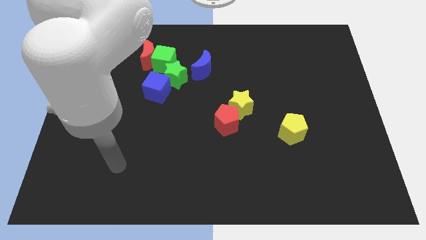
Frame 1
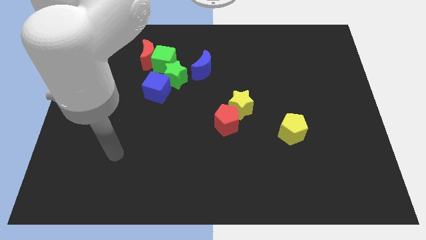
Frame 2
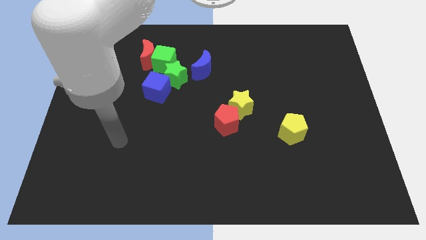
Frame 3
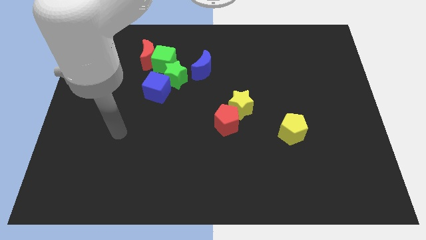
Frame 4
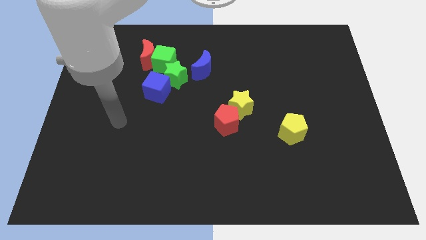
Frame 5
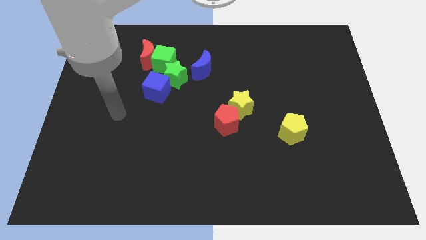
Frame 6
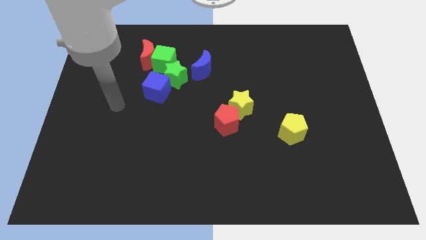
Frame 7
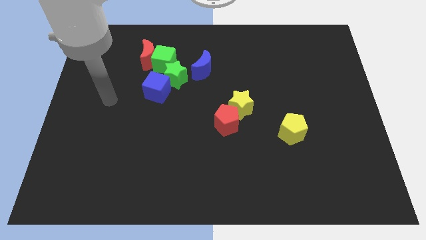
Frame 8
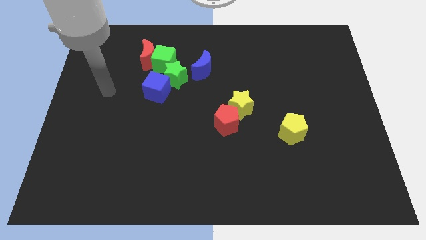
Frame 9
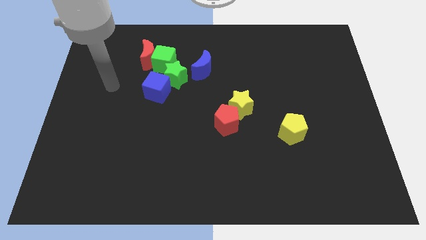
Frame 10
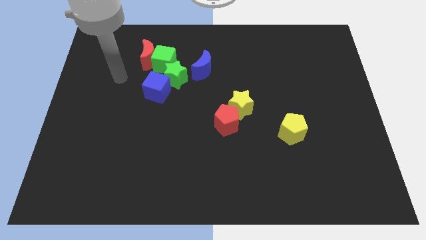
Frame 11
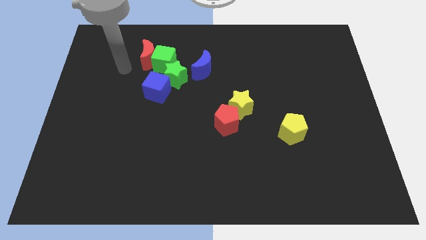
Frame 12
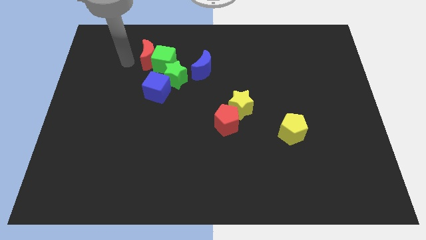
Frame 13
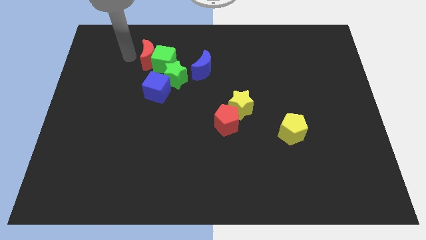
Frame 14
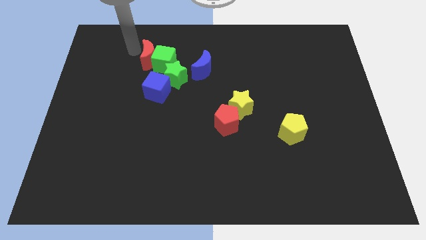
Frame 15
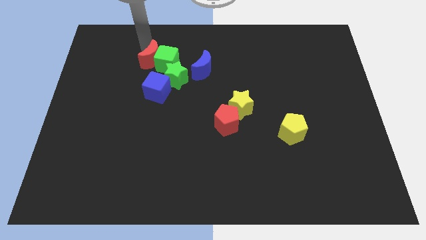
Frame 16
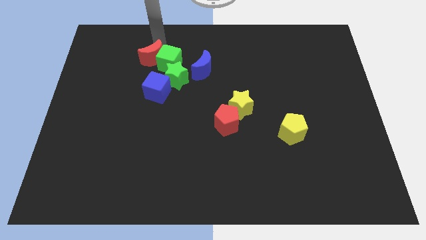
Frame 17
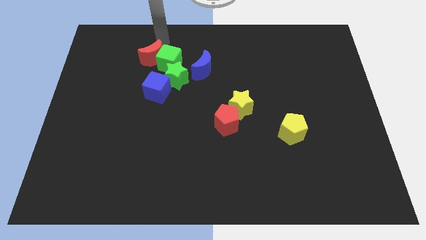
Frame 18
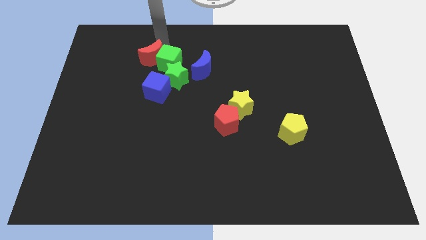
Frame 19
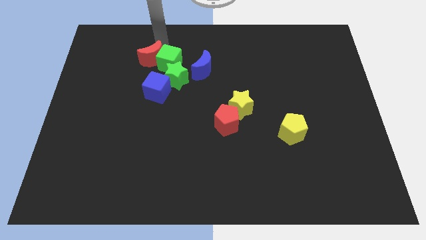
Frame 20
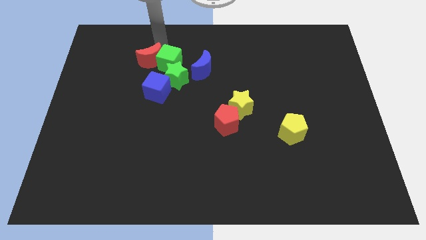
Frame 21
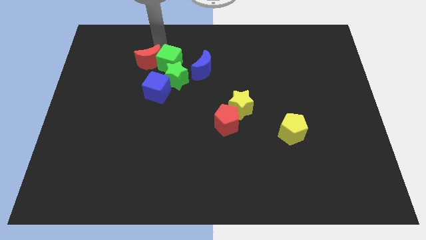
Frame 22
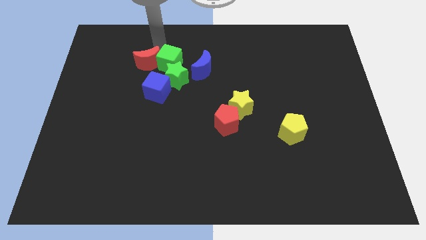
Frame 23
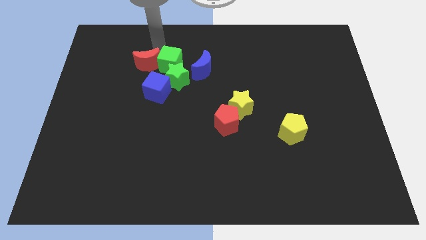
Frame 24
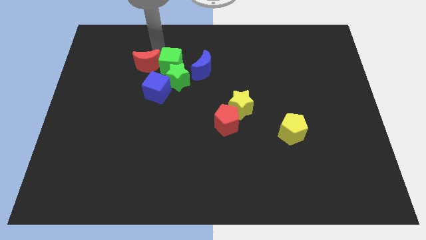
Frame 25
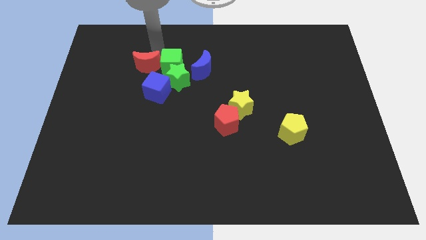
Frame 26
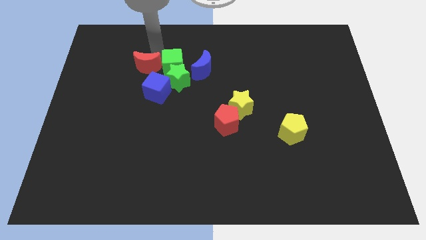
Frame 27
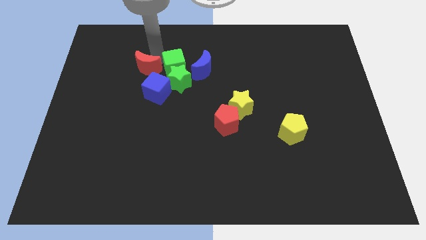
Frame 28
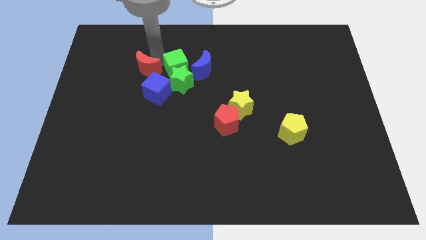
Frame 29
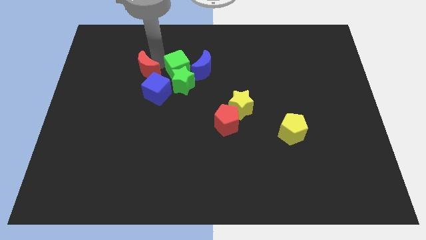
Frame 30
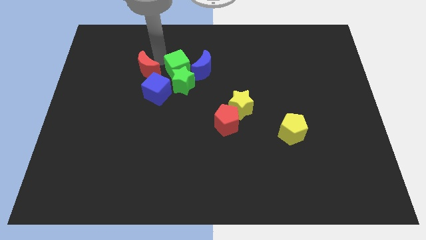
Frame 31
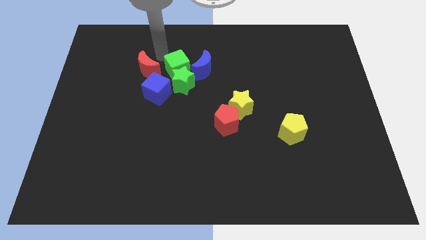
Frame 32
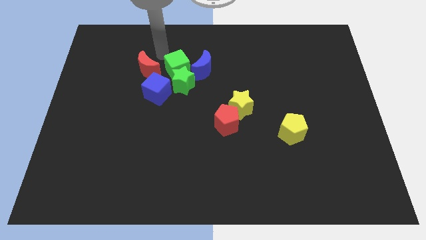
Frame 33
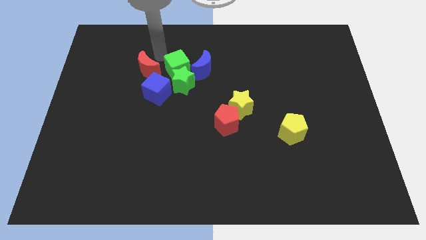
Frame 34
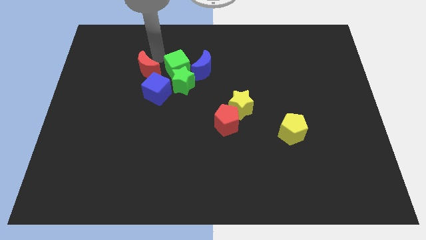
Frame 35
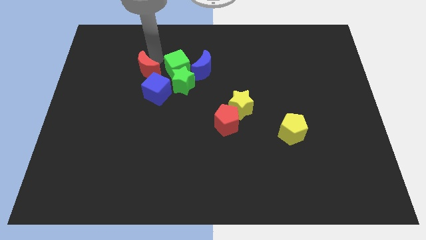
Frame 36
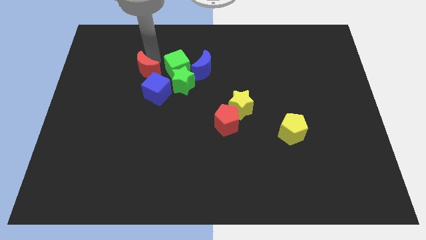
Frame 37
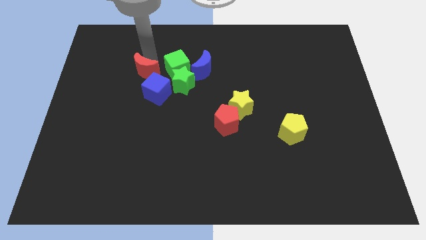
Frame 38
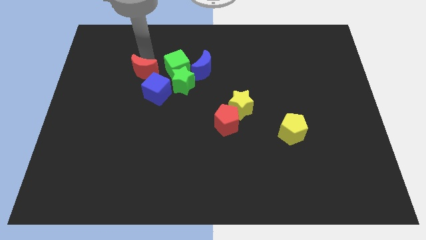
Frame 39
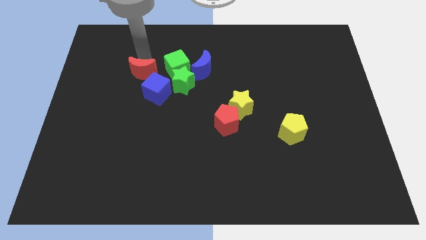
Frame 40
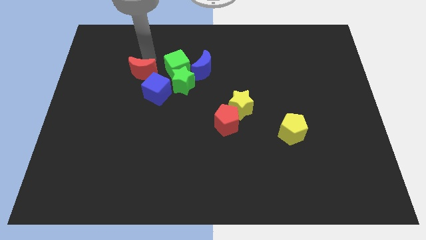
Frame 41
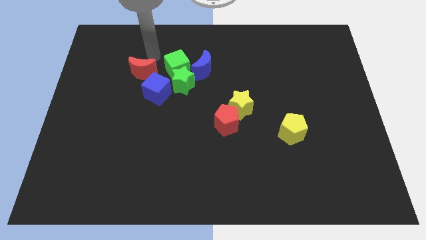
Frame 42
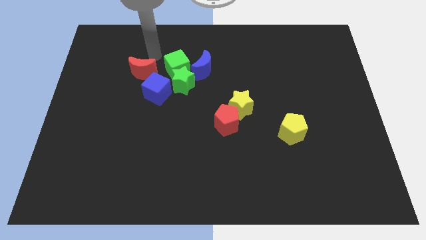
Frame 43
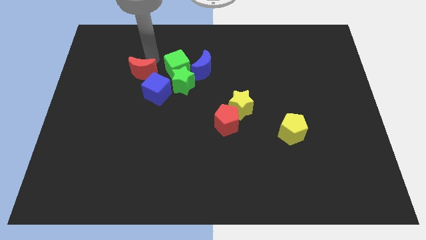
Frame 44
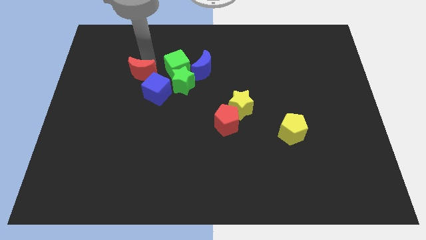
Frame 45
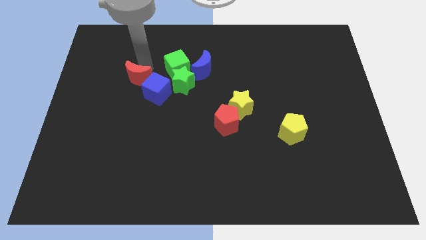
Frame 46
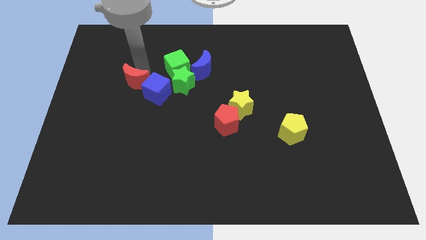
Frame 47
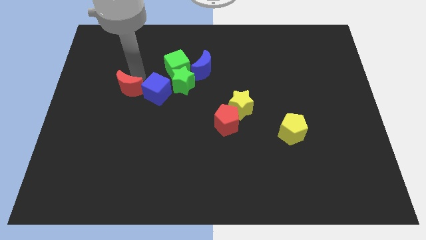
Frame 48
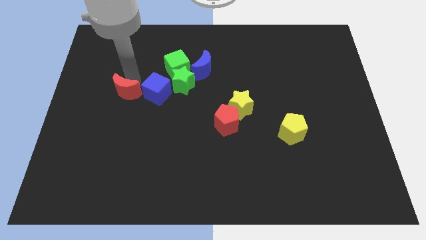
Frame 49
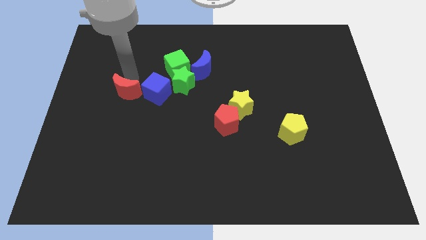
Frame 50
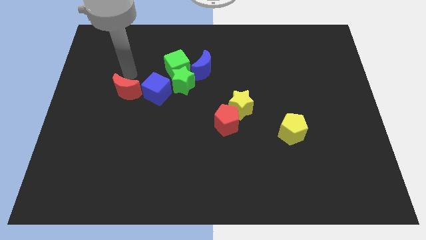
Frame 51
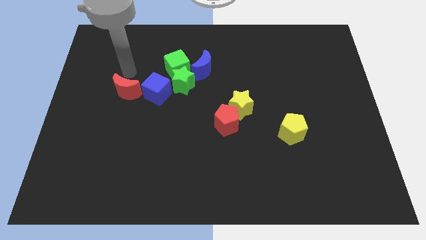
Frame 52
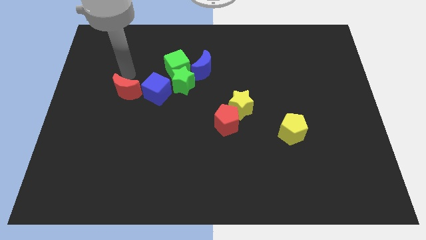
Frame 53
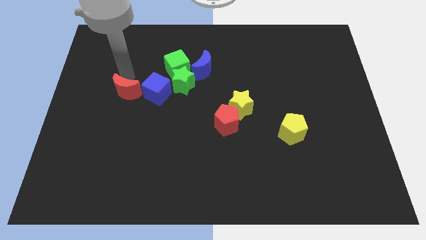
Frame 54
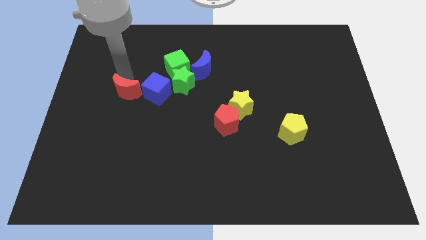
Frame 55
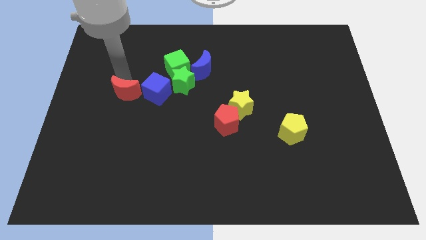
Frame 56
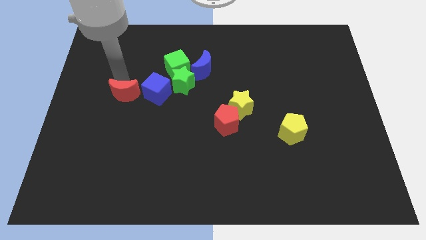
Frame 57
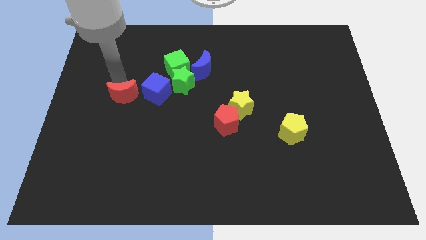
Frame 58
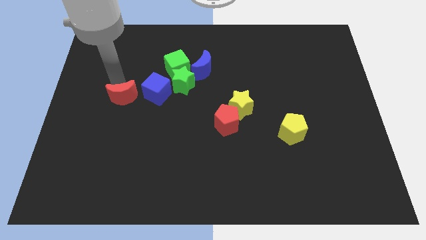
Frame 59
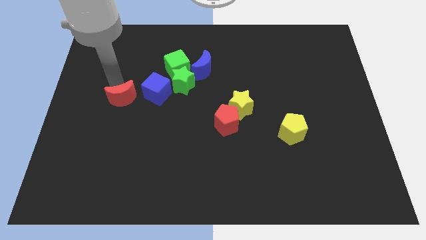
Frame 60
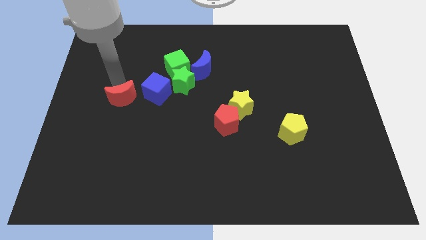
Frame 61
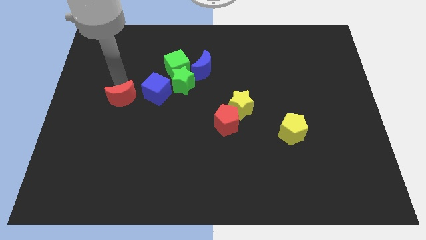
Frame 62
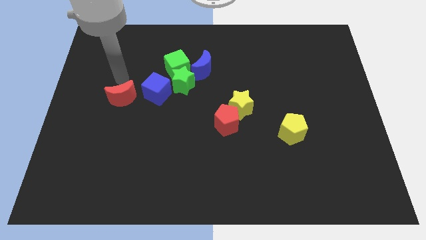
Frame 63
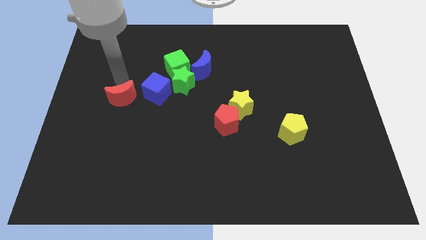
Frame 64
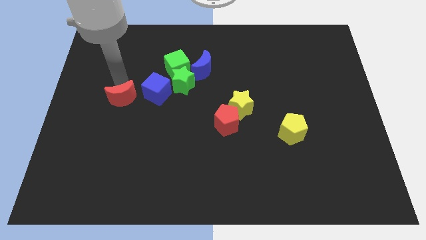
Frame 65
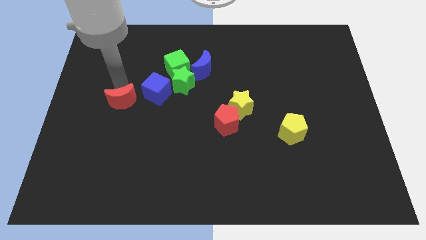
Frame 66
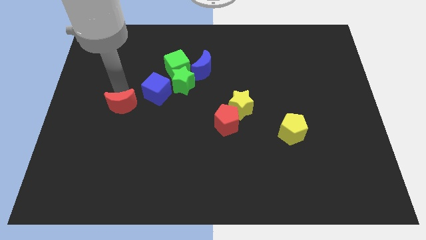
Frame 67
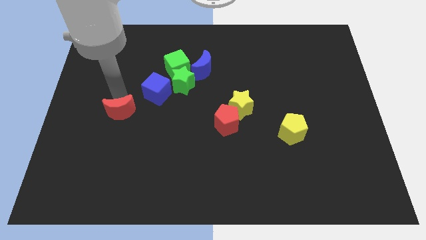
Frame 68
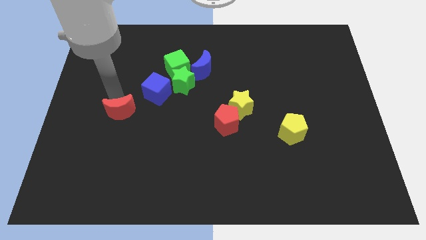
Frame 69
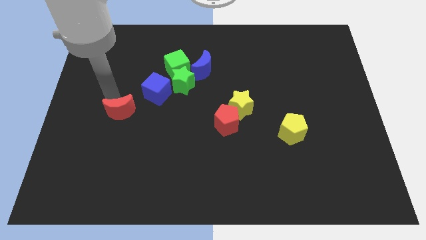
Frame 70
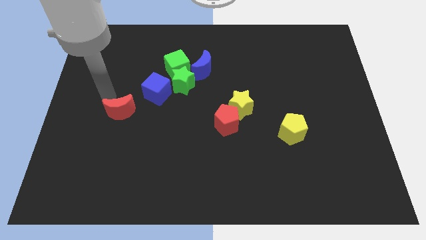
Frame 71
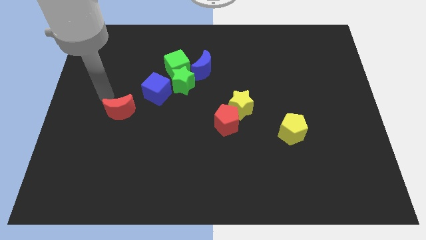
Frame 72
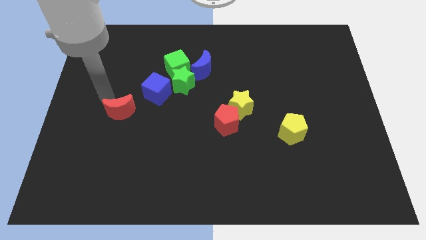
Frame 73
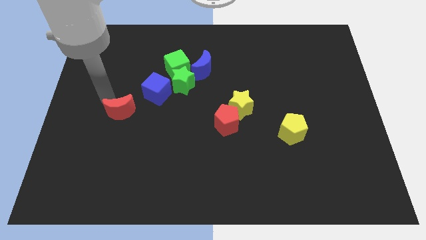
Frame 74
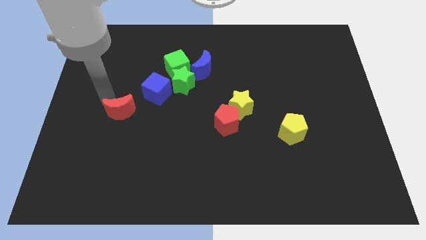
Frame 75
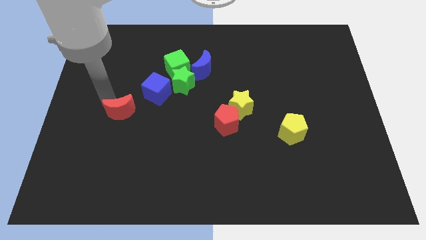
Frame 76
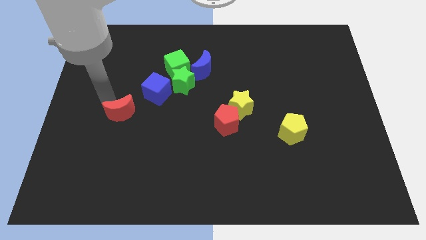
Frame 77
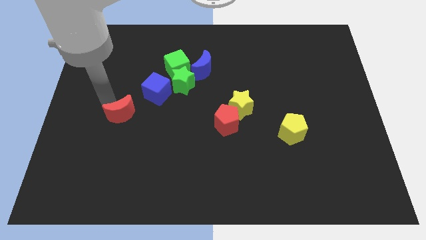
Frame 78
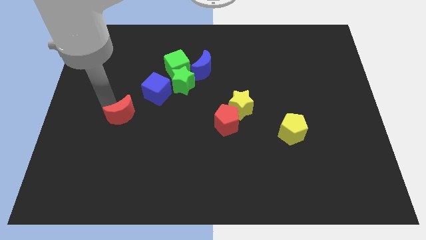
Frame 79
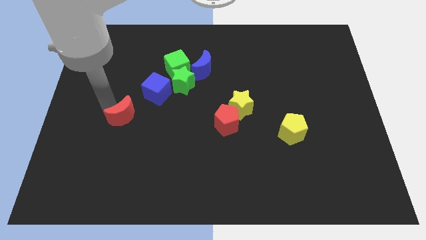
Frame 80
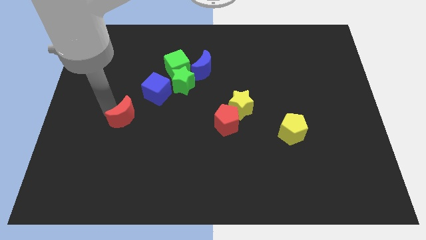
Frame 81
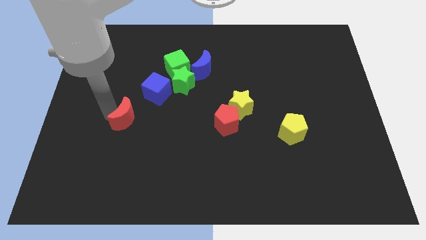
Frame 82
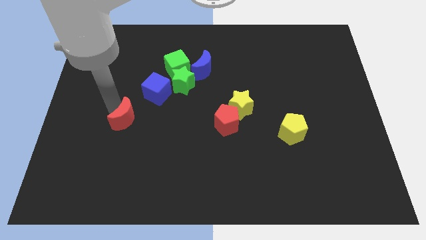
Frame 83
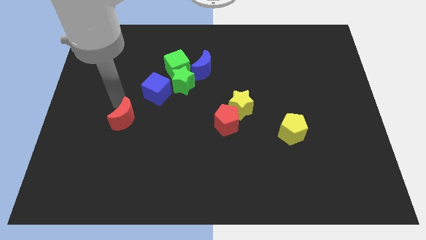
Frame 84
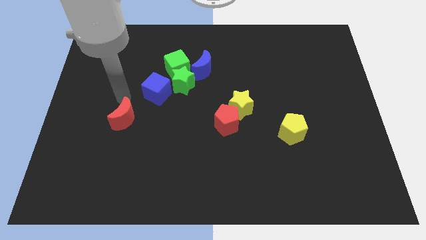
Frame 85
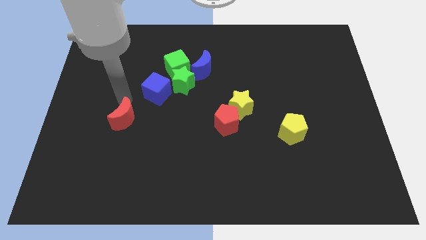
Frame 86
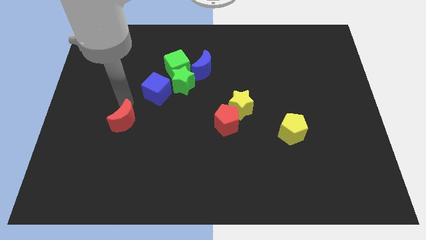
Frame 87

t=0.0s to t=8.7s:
move the red moon down
